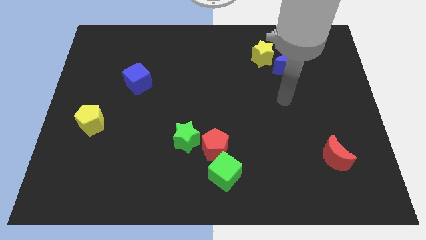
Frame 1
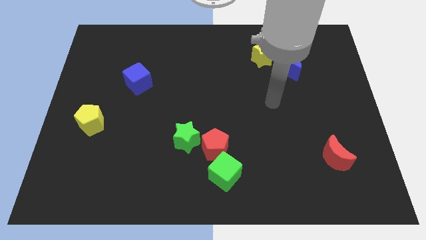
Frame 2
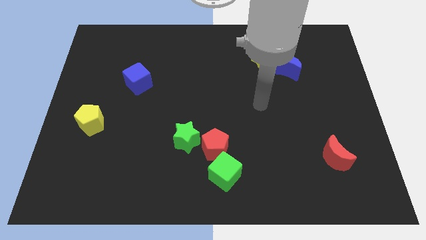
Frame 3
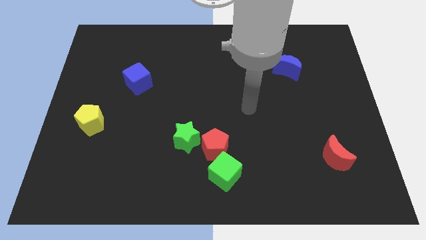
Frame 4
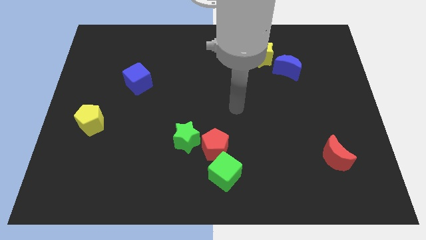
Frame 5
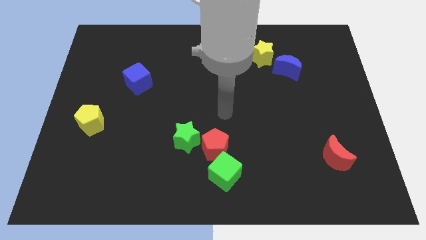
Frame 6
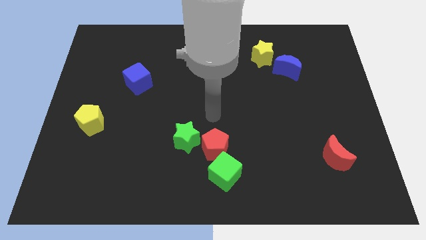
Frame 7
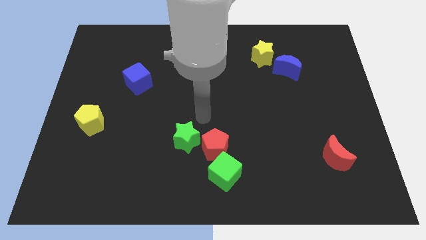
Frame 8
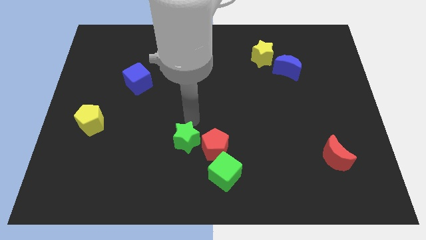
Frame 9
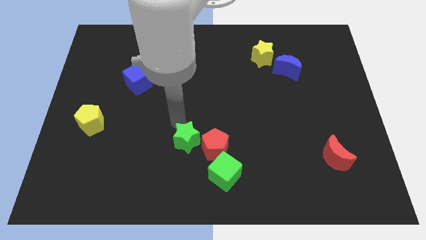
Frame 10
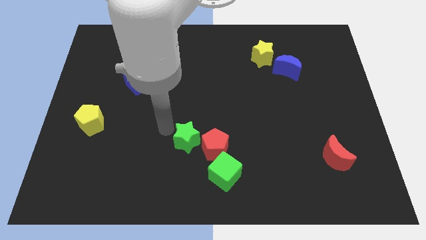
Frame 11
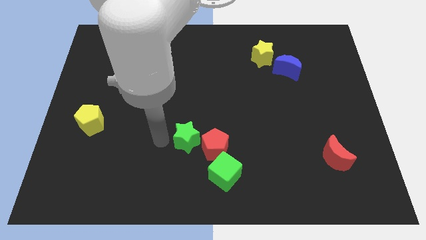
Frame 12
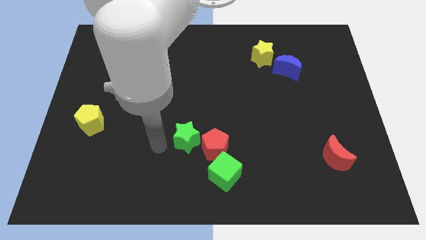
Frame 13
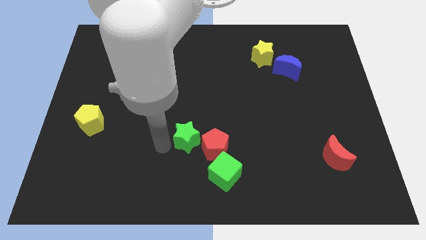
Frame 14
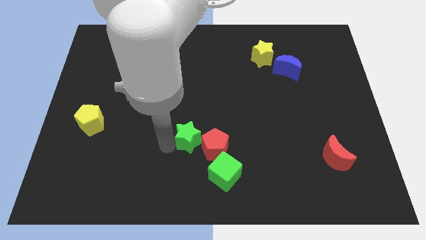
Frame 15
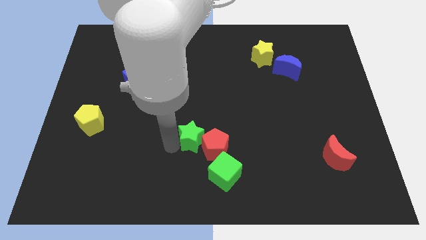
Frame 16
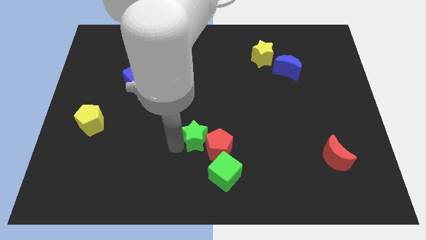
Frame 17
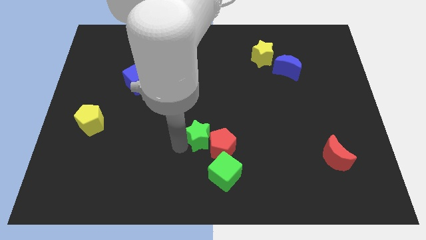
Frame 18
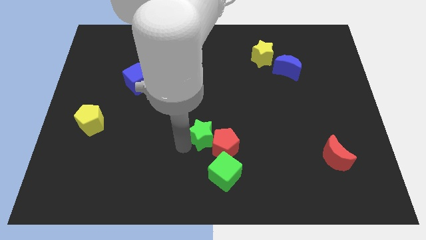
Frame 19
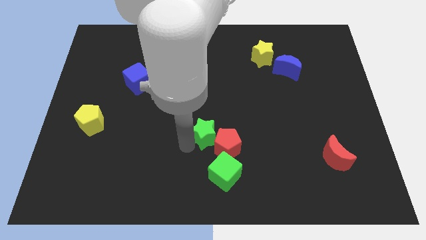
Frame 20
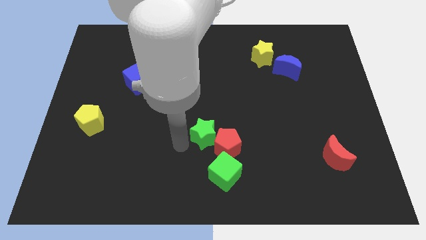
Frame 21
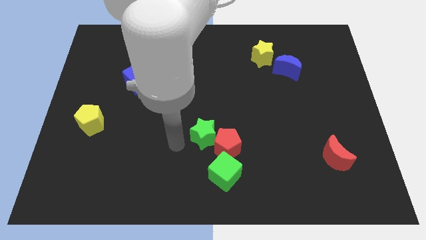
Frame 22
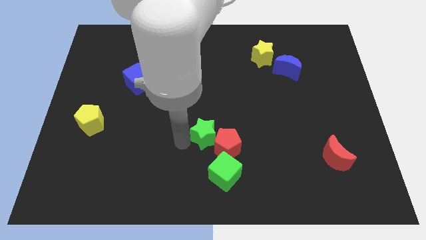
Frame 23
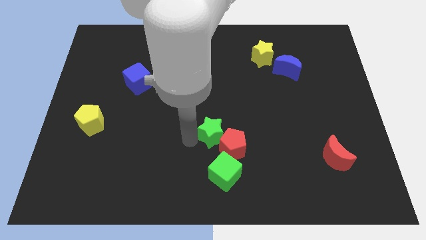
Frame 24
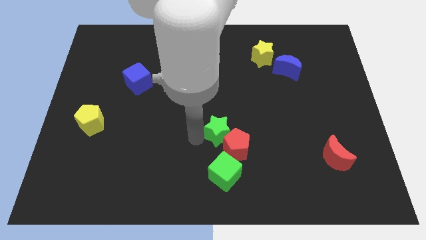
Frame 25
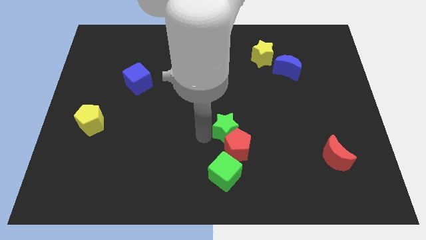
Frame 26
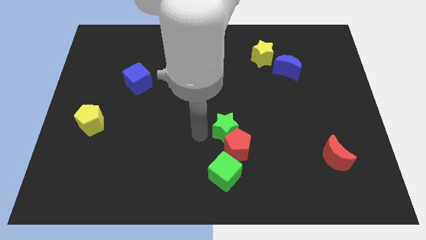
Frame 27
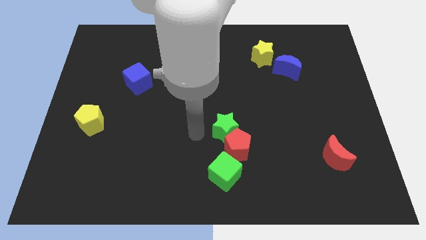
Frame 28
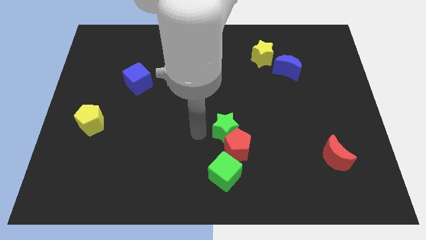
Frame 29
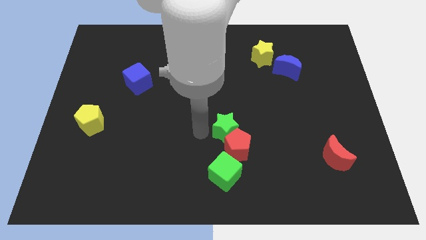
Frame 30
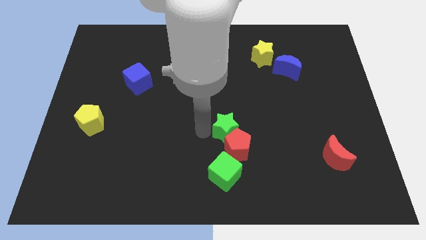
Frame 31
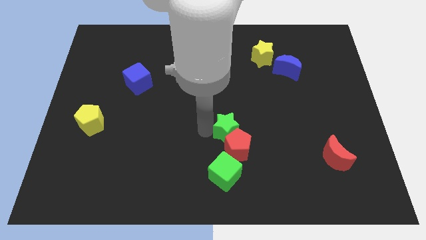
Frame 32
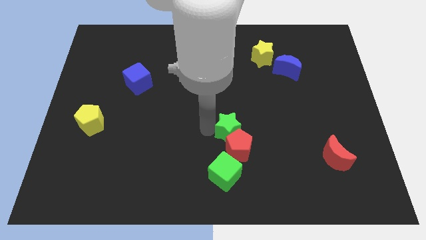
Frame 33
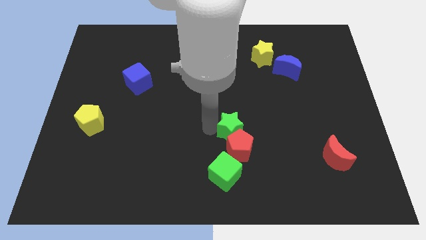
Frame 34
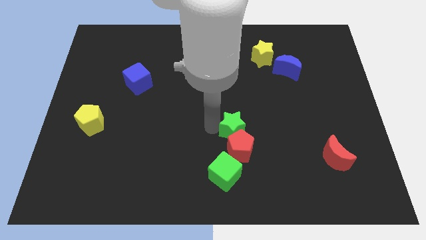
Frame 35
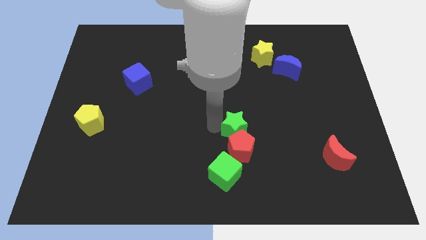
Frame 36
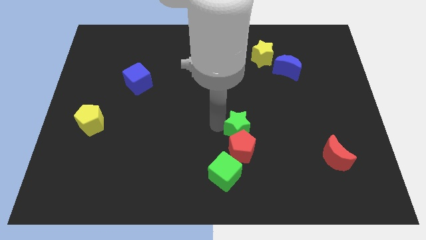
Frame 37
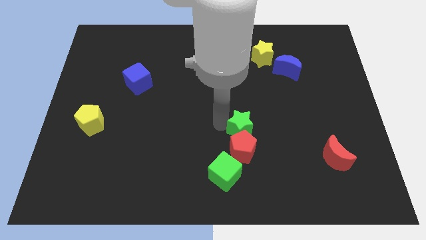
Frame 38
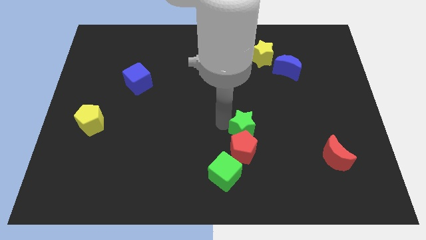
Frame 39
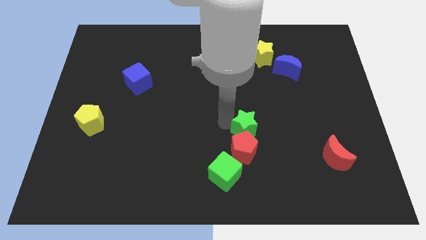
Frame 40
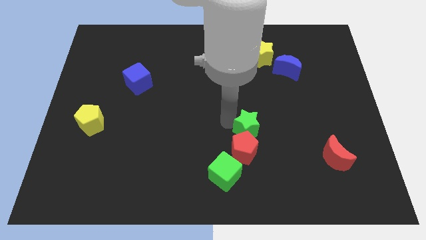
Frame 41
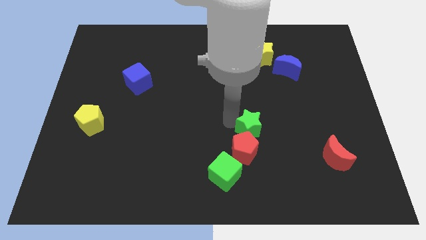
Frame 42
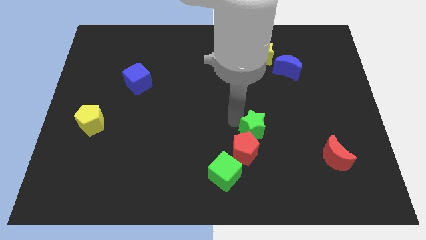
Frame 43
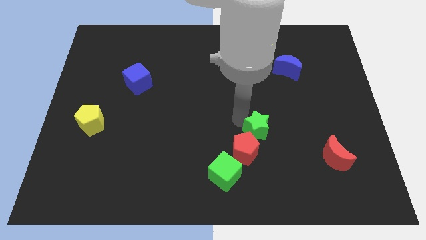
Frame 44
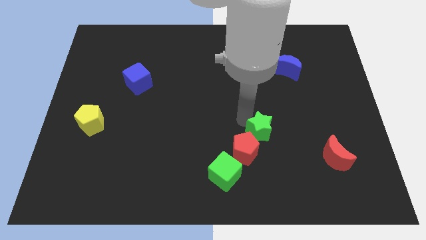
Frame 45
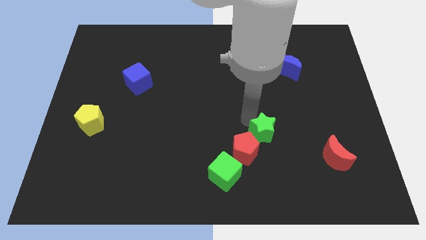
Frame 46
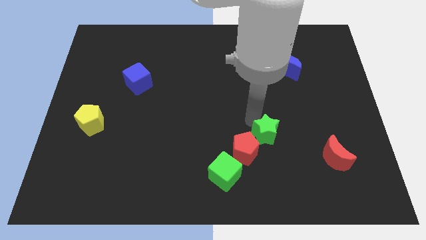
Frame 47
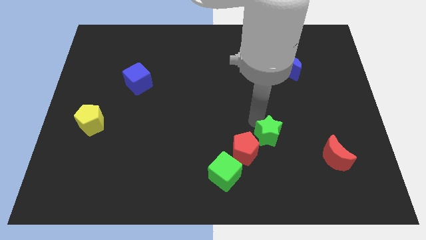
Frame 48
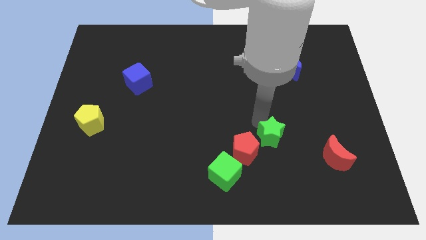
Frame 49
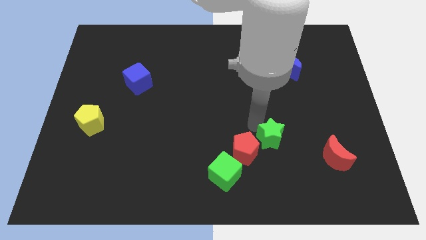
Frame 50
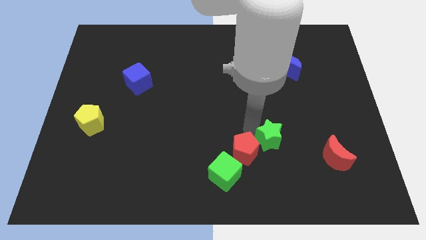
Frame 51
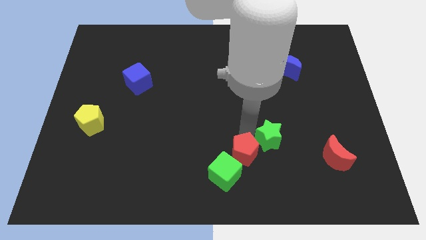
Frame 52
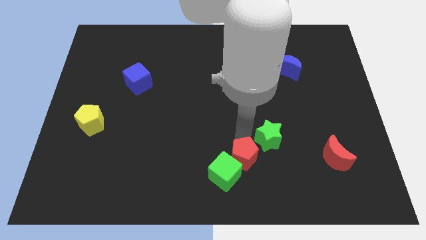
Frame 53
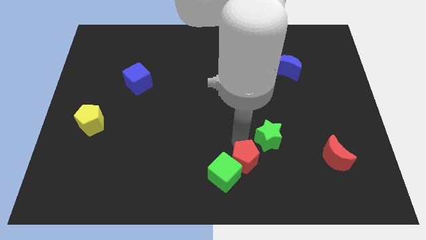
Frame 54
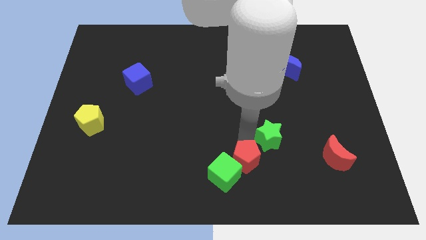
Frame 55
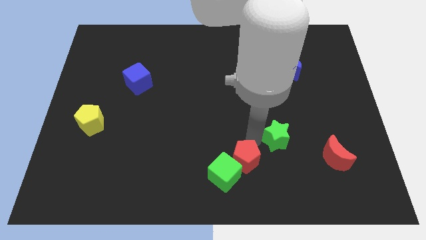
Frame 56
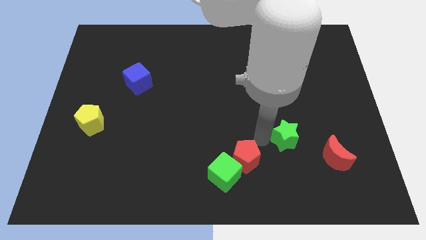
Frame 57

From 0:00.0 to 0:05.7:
slide the green star to the right

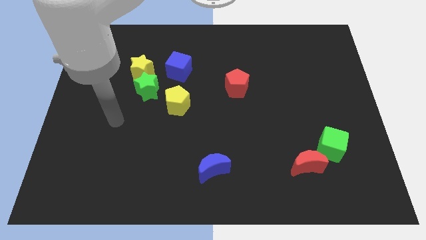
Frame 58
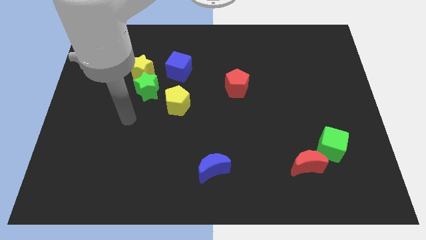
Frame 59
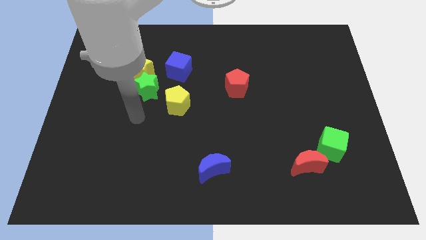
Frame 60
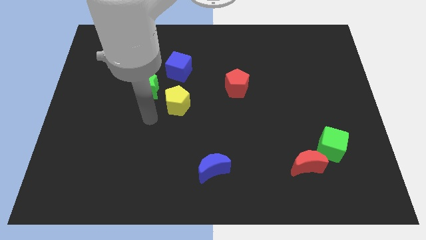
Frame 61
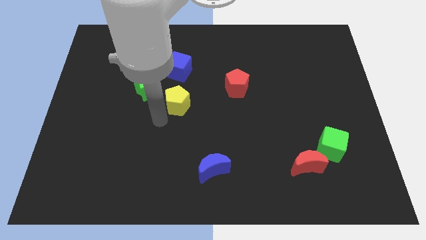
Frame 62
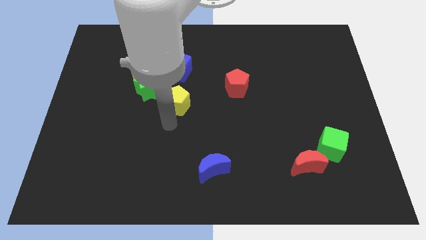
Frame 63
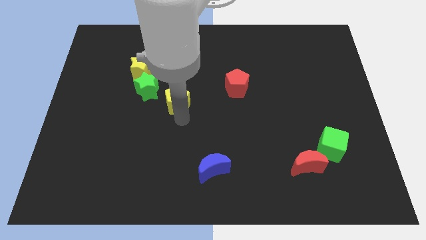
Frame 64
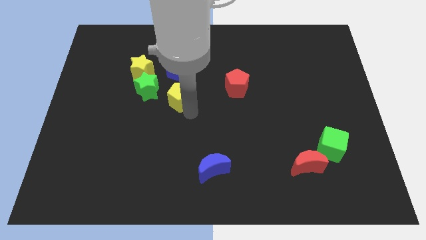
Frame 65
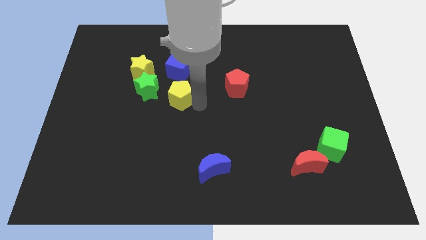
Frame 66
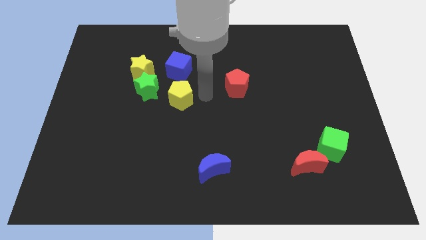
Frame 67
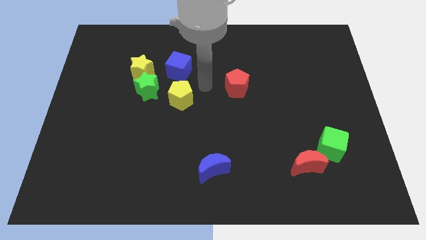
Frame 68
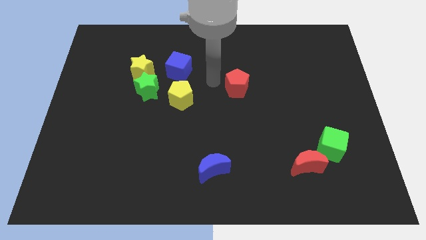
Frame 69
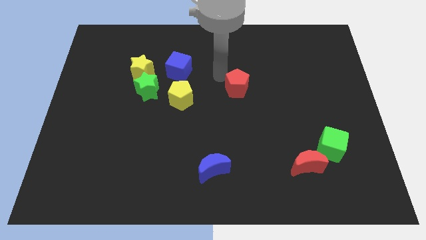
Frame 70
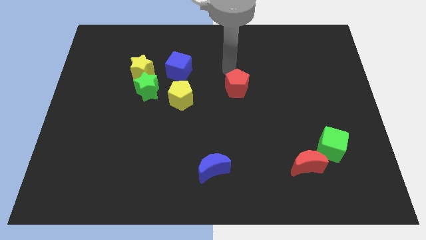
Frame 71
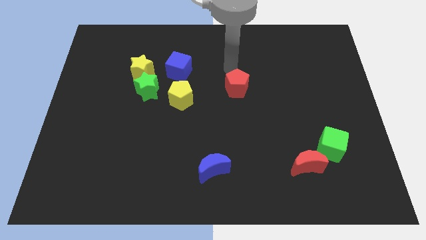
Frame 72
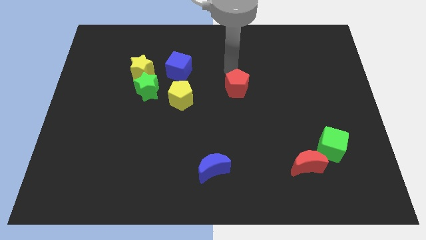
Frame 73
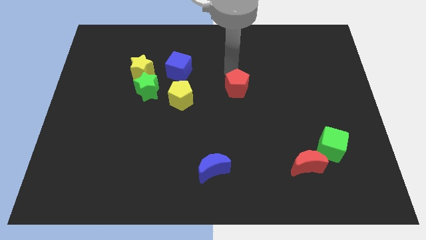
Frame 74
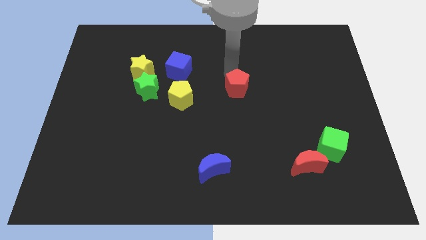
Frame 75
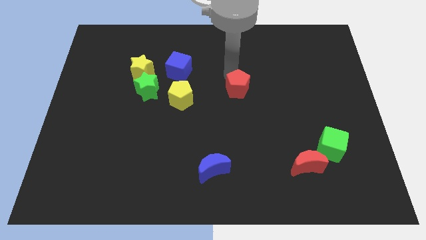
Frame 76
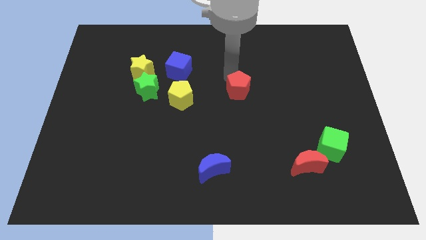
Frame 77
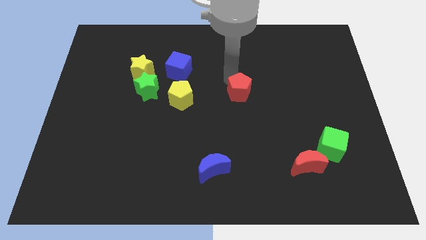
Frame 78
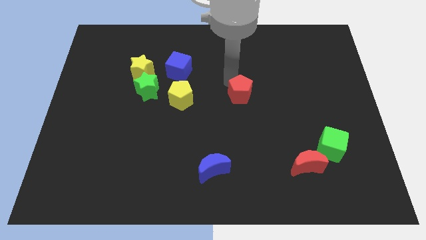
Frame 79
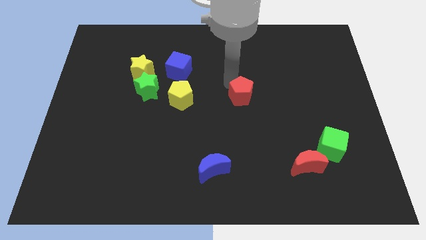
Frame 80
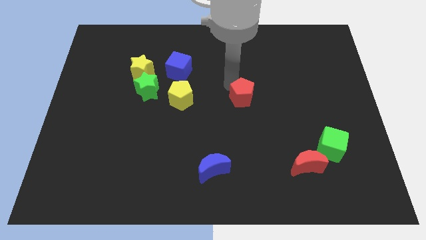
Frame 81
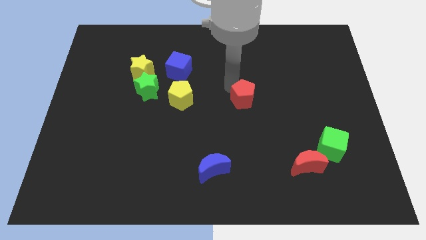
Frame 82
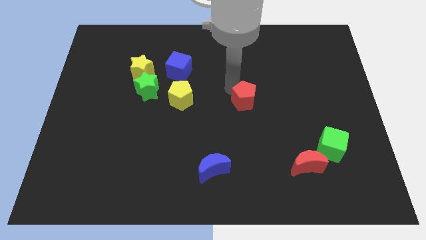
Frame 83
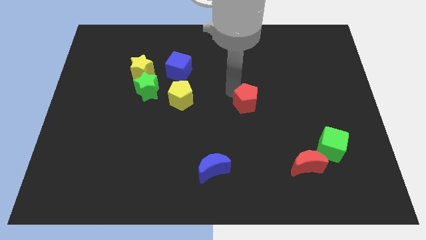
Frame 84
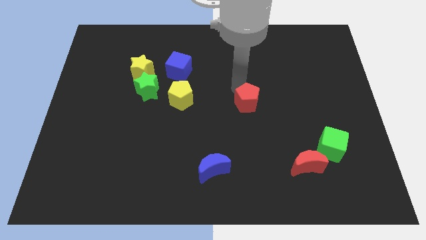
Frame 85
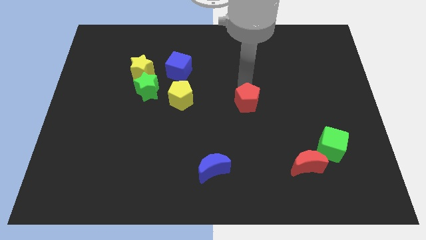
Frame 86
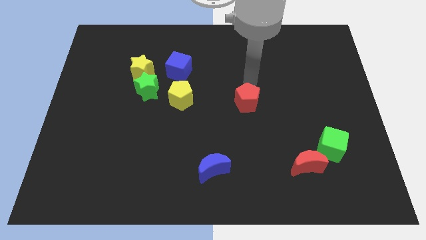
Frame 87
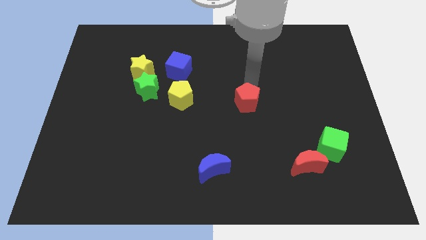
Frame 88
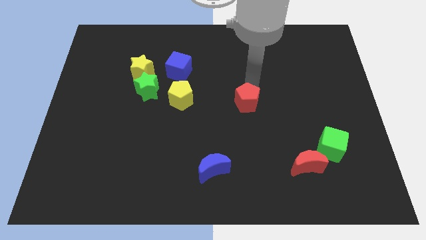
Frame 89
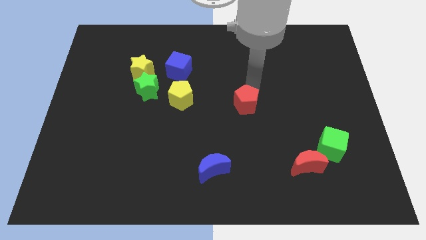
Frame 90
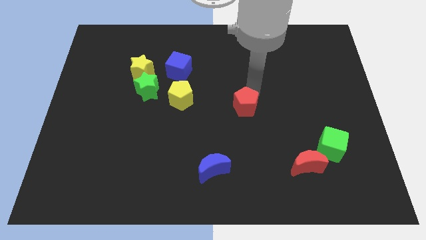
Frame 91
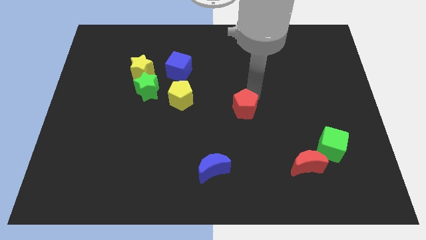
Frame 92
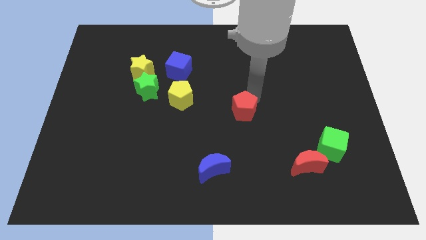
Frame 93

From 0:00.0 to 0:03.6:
move the red pentagon down a bit
